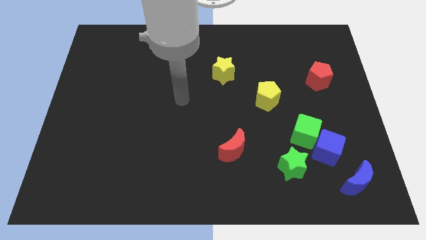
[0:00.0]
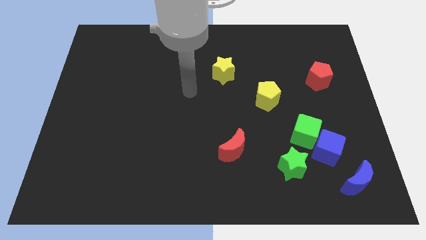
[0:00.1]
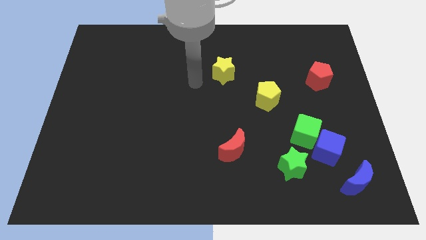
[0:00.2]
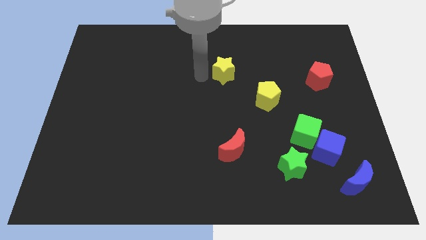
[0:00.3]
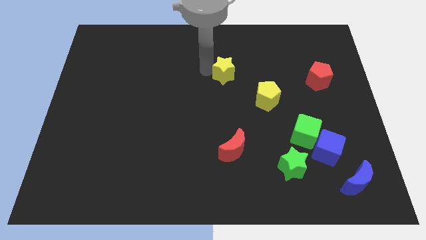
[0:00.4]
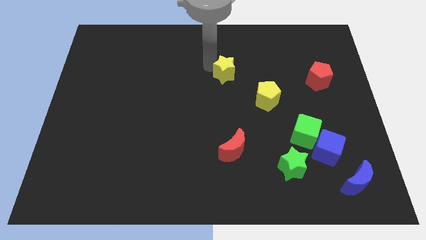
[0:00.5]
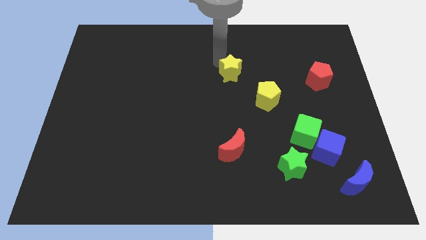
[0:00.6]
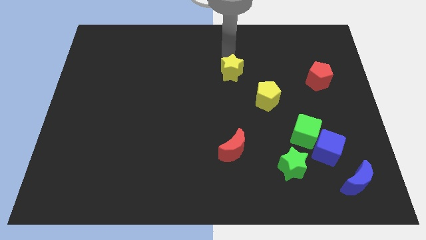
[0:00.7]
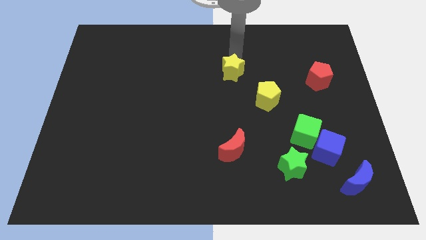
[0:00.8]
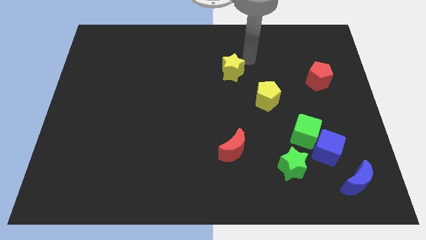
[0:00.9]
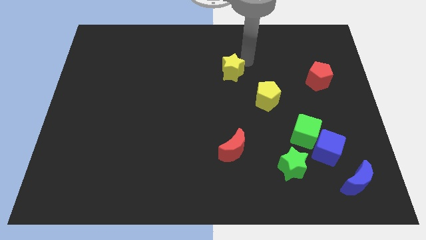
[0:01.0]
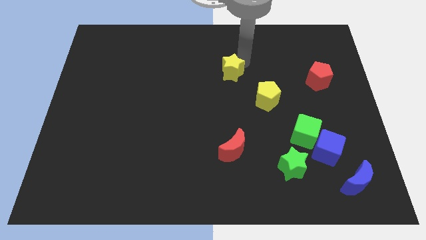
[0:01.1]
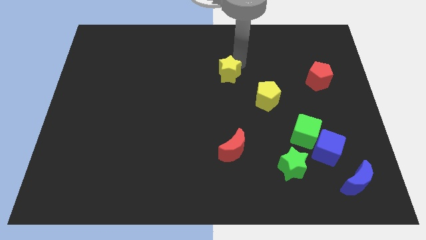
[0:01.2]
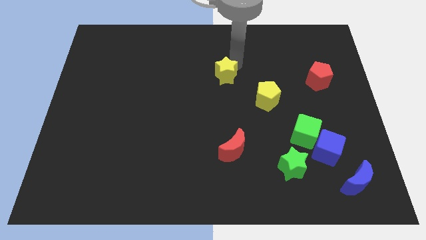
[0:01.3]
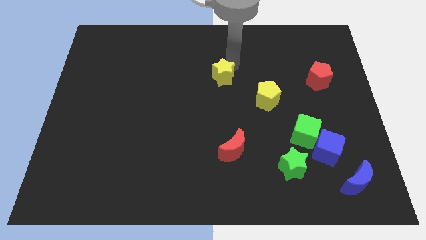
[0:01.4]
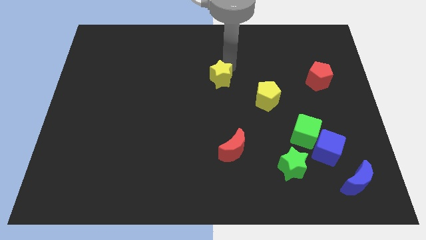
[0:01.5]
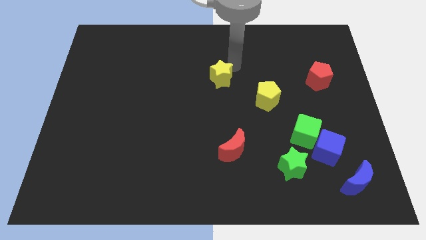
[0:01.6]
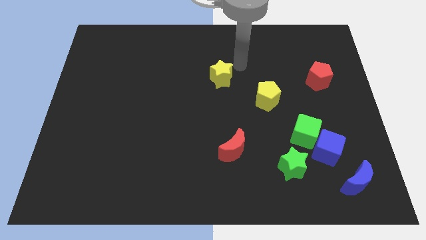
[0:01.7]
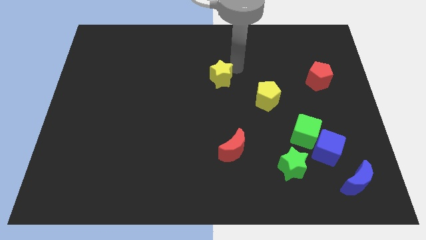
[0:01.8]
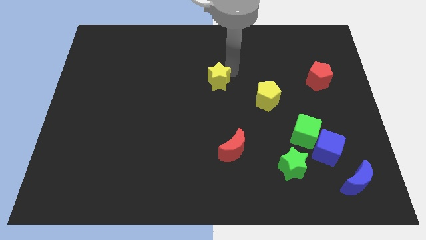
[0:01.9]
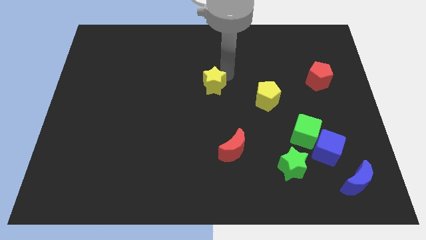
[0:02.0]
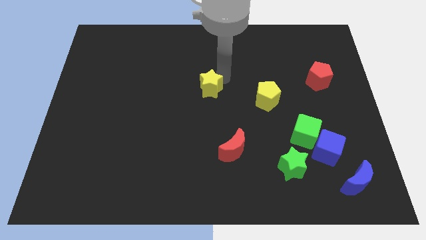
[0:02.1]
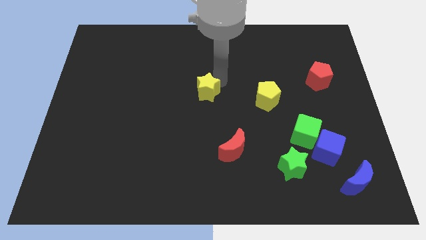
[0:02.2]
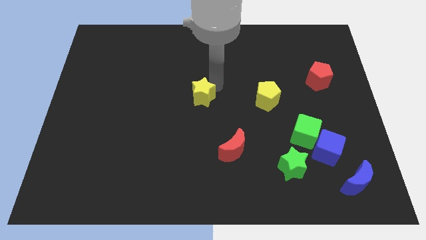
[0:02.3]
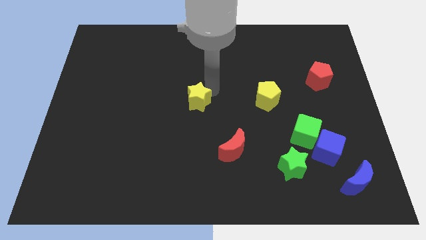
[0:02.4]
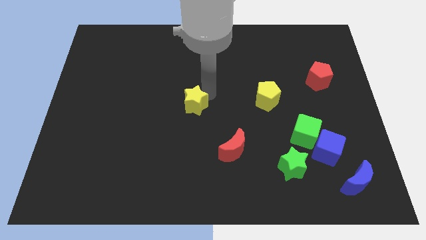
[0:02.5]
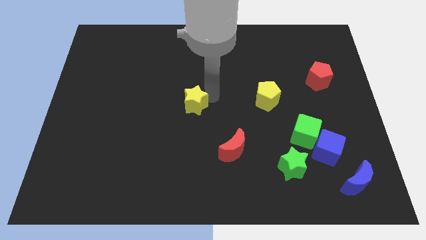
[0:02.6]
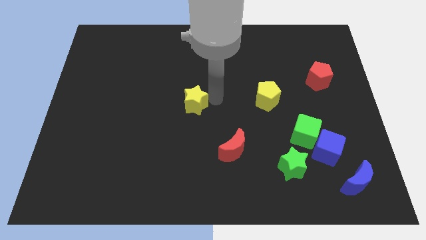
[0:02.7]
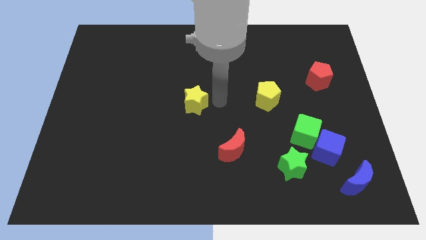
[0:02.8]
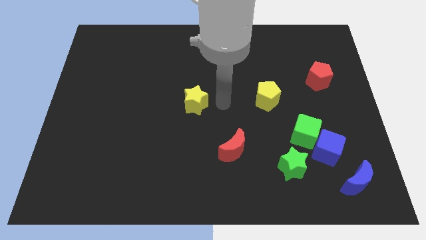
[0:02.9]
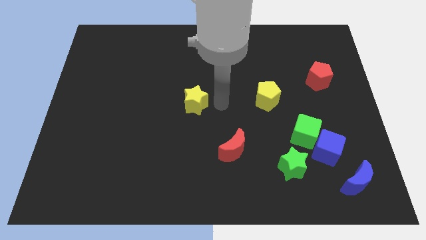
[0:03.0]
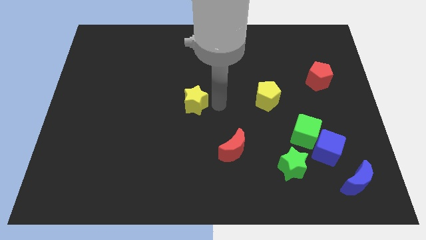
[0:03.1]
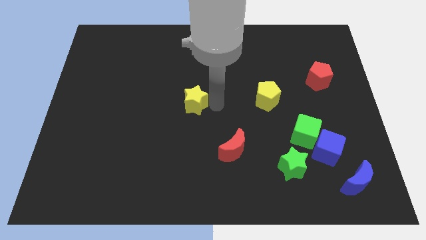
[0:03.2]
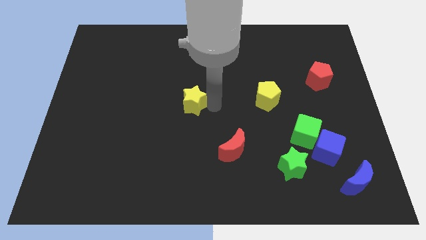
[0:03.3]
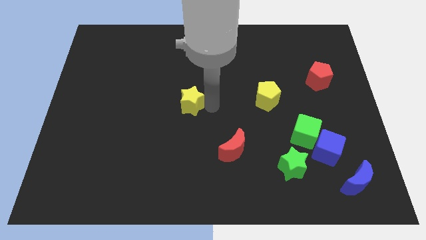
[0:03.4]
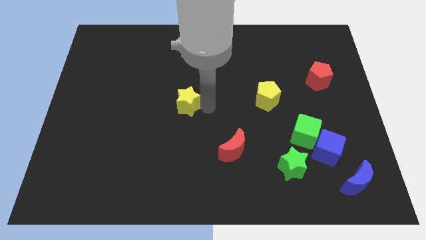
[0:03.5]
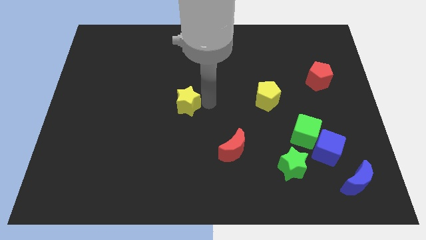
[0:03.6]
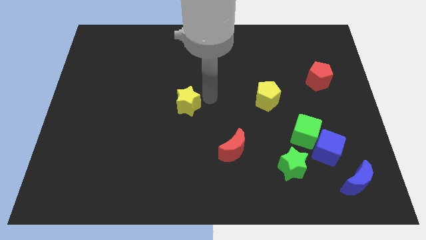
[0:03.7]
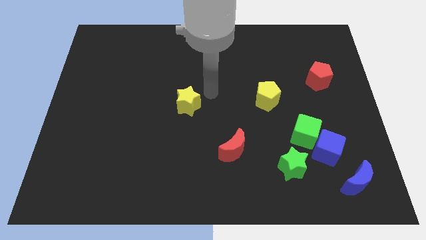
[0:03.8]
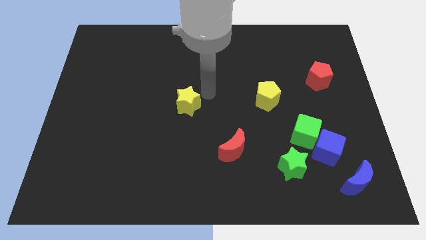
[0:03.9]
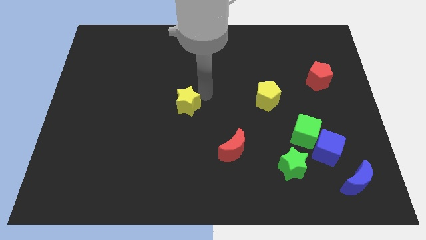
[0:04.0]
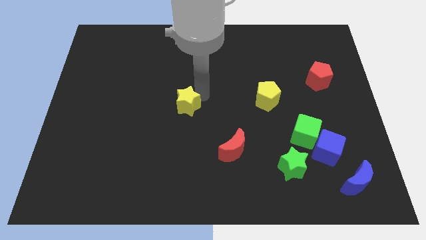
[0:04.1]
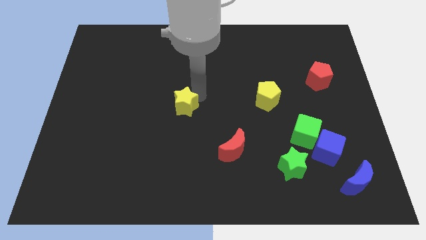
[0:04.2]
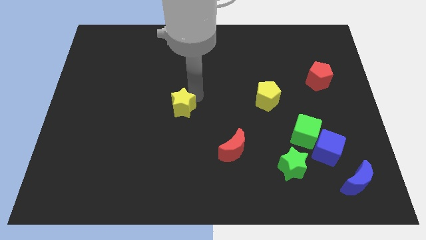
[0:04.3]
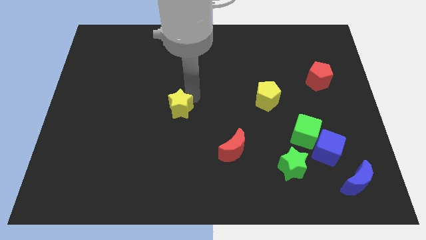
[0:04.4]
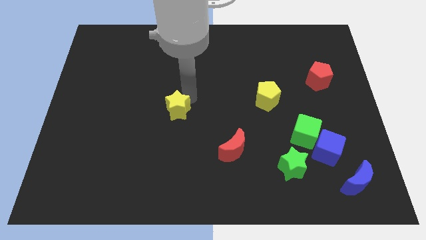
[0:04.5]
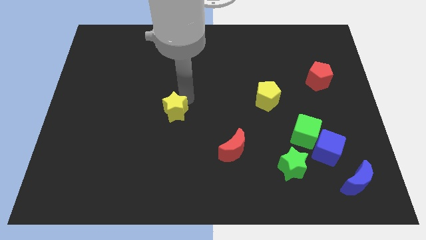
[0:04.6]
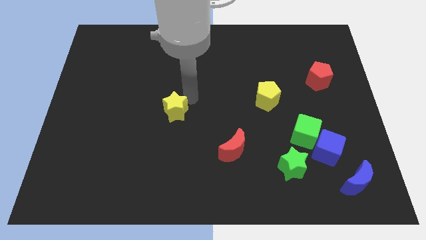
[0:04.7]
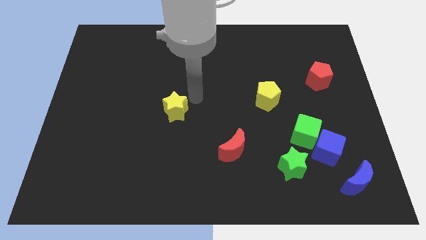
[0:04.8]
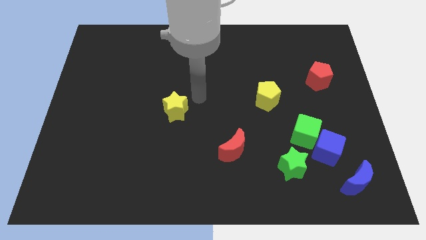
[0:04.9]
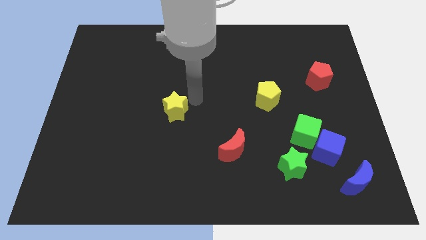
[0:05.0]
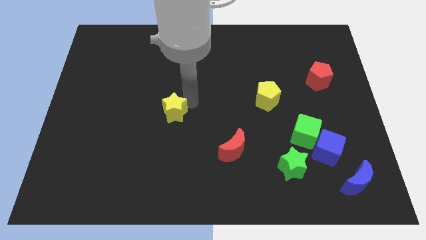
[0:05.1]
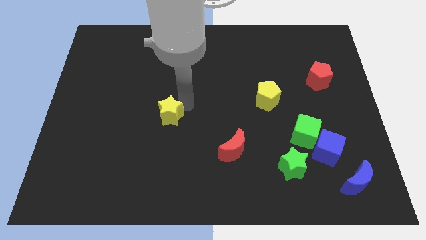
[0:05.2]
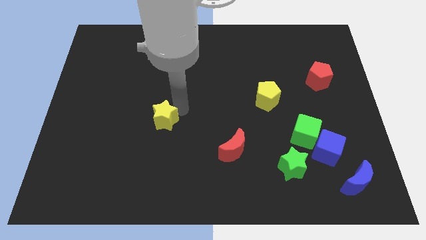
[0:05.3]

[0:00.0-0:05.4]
slide the yellow star down and to the left

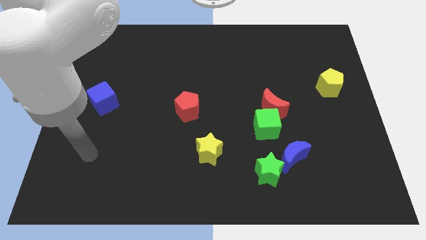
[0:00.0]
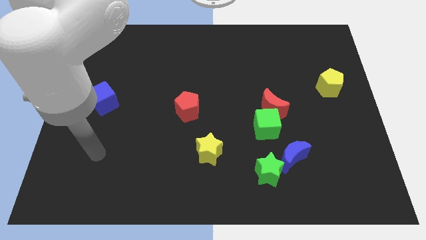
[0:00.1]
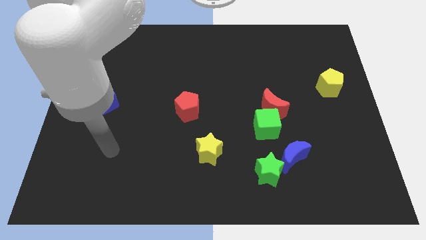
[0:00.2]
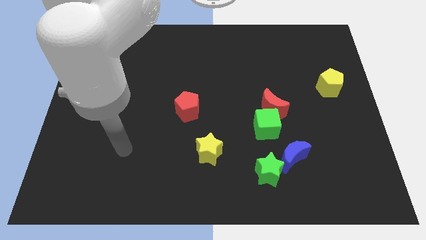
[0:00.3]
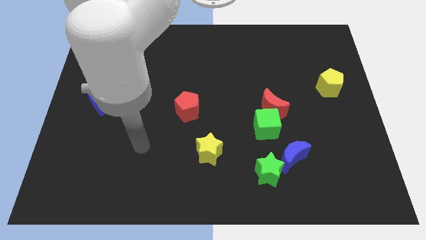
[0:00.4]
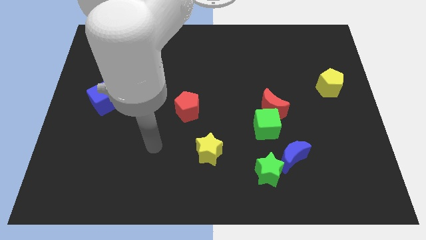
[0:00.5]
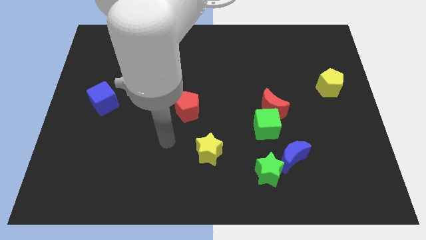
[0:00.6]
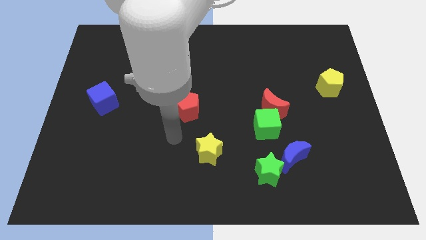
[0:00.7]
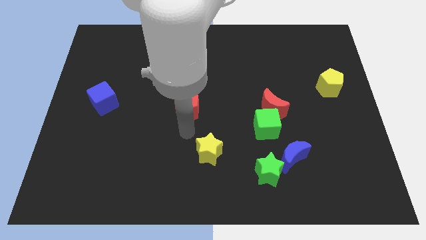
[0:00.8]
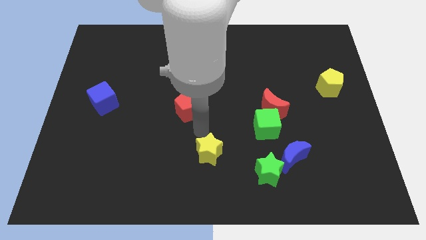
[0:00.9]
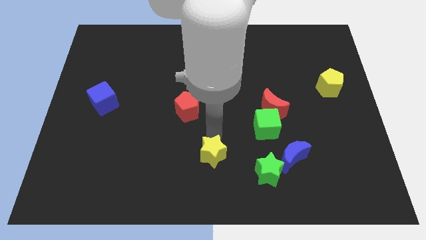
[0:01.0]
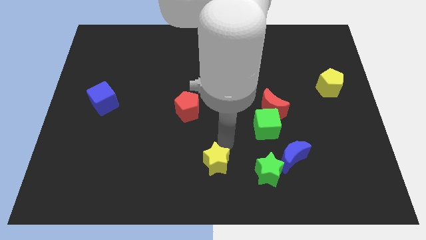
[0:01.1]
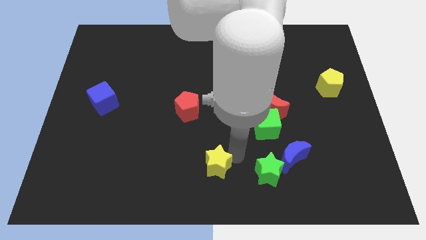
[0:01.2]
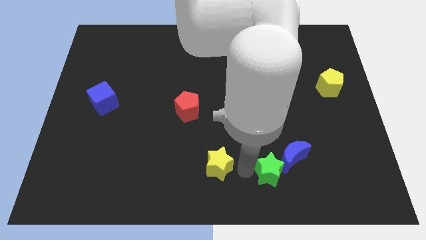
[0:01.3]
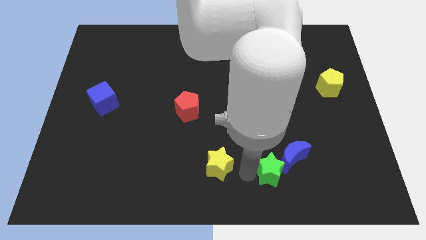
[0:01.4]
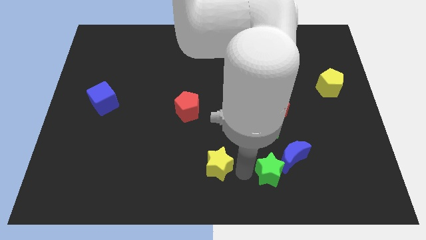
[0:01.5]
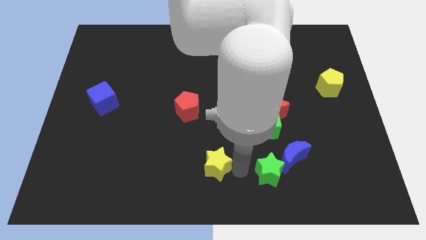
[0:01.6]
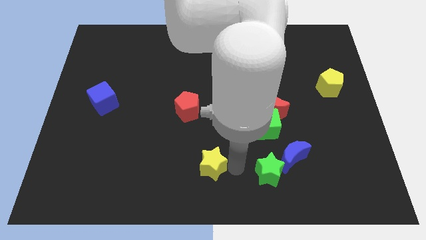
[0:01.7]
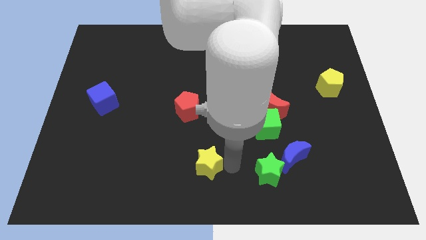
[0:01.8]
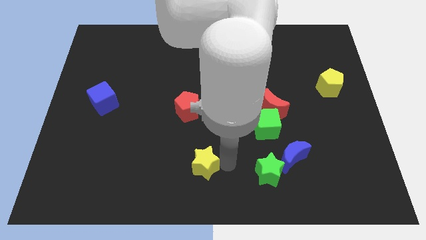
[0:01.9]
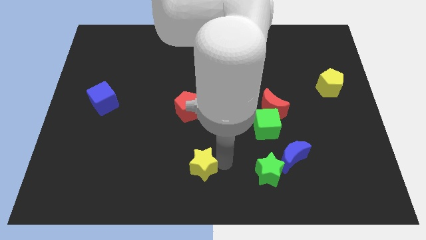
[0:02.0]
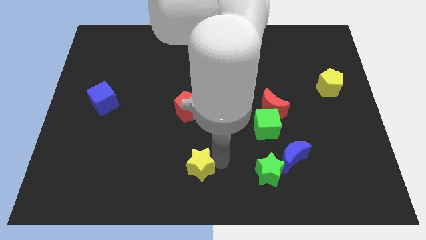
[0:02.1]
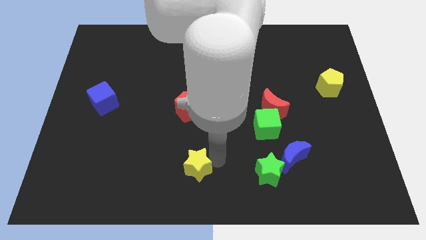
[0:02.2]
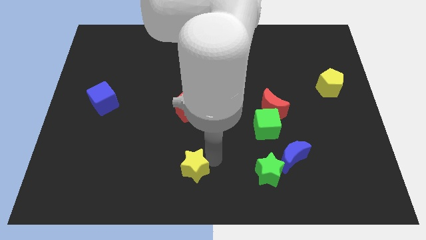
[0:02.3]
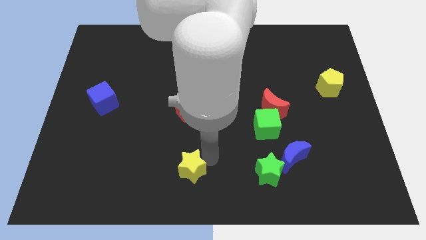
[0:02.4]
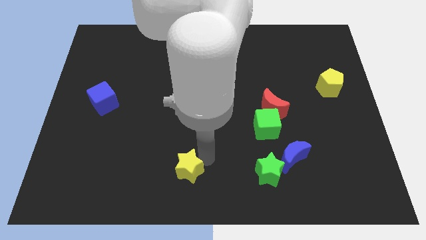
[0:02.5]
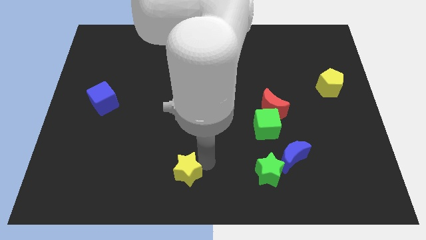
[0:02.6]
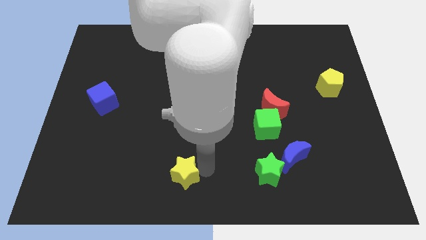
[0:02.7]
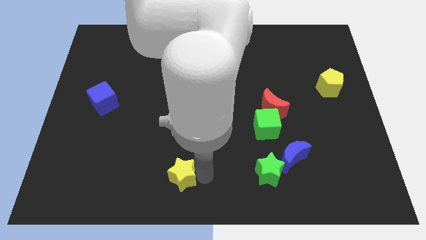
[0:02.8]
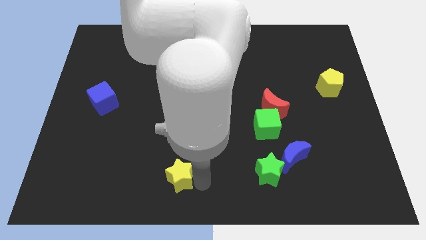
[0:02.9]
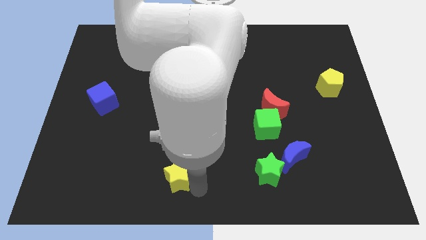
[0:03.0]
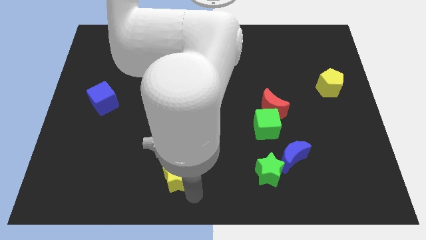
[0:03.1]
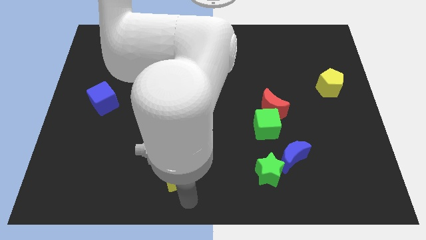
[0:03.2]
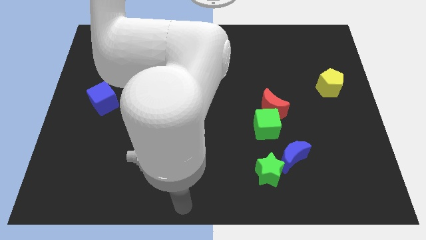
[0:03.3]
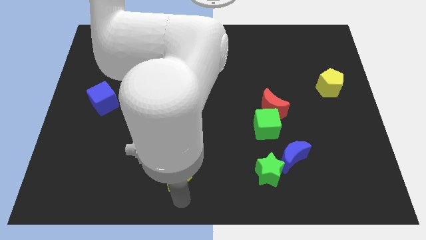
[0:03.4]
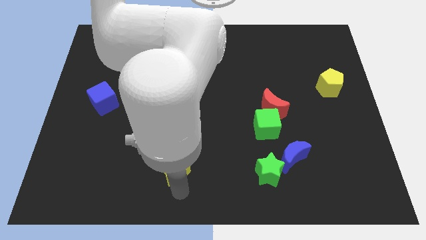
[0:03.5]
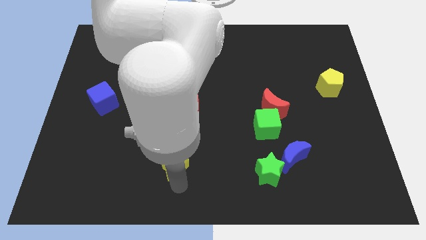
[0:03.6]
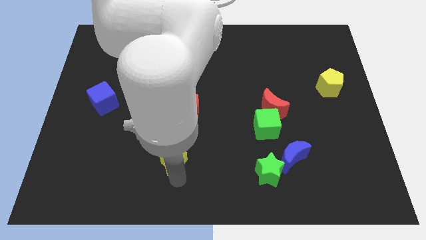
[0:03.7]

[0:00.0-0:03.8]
move the yellow star slightly to the left
